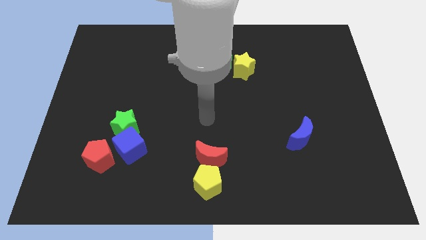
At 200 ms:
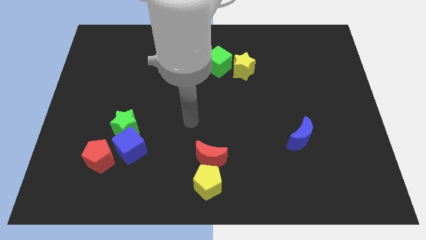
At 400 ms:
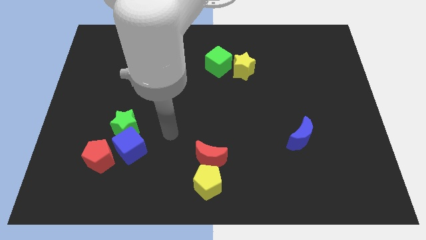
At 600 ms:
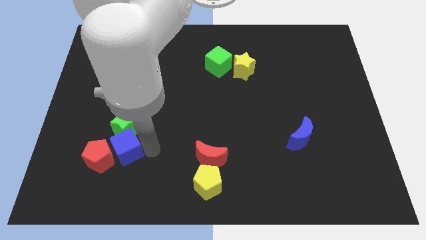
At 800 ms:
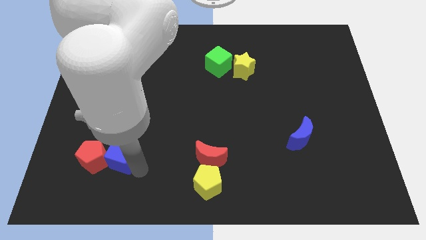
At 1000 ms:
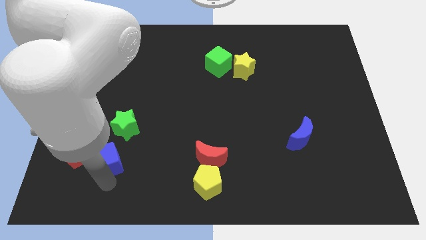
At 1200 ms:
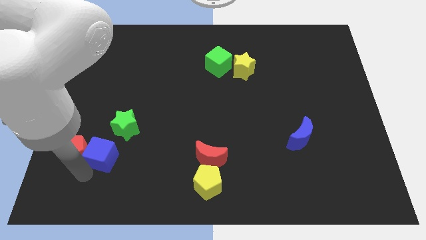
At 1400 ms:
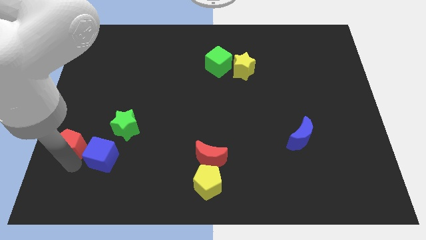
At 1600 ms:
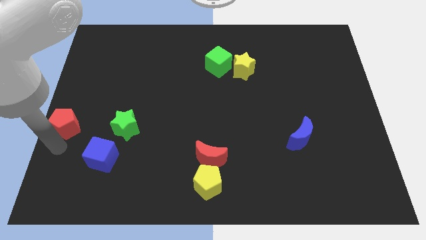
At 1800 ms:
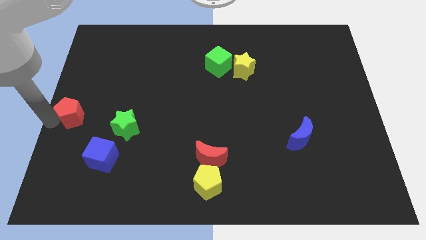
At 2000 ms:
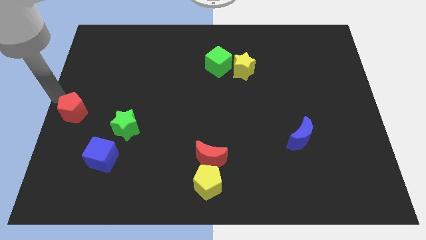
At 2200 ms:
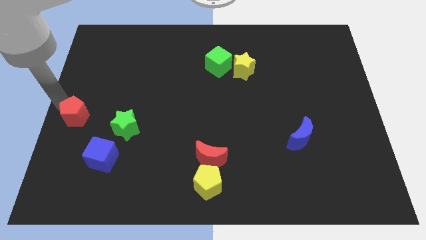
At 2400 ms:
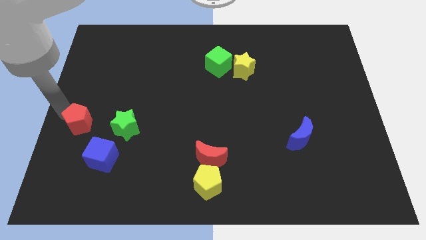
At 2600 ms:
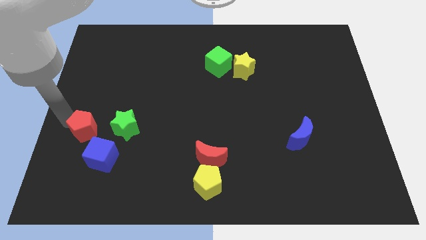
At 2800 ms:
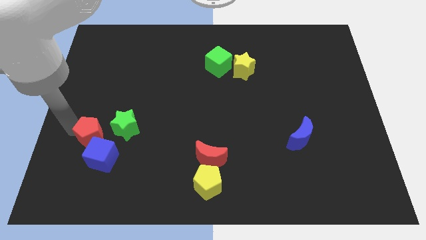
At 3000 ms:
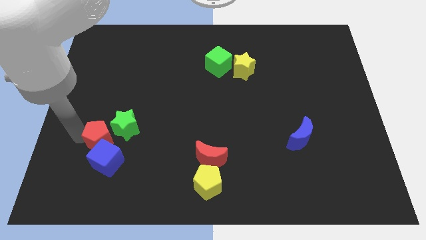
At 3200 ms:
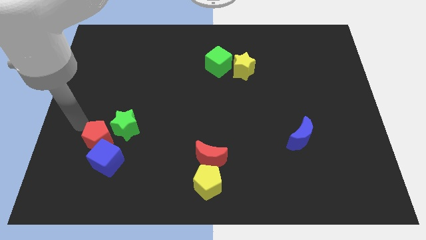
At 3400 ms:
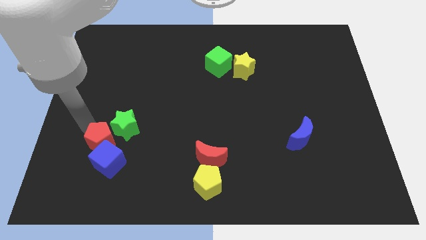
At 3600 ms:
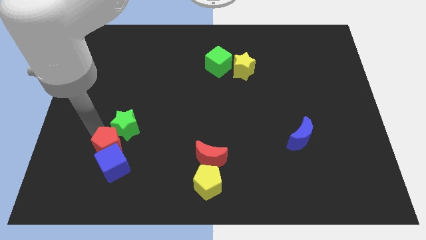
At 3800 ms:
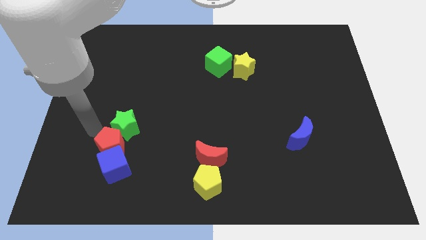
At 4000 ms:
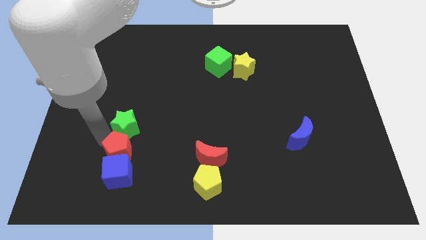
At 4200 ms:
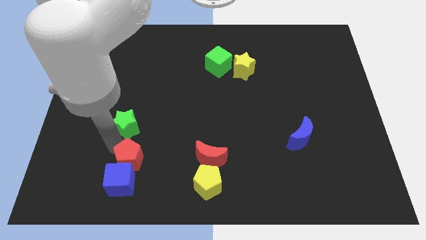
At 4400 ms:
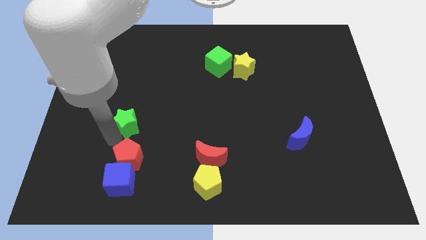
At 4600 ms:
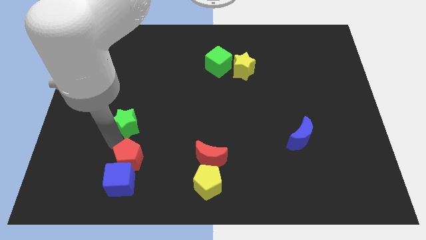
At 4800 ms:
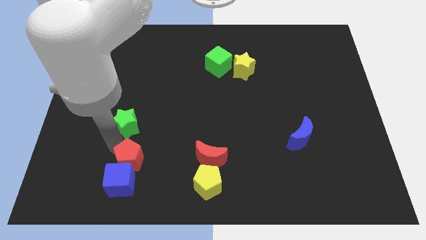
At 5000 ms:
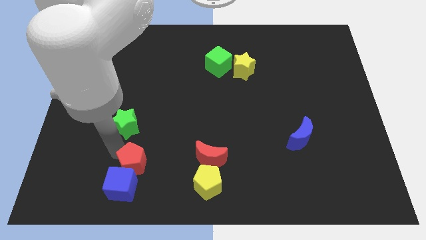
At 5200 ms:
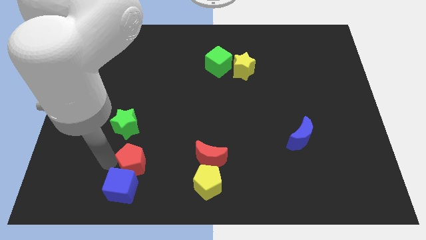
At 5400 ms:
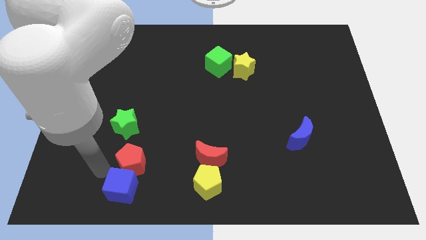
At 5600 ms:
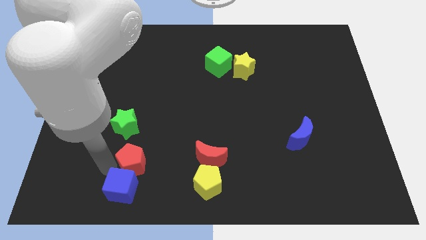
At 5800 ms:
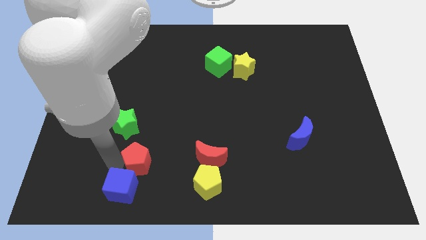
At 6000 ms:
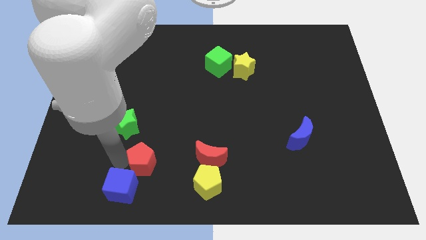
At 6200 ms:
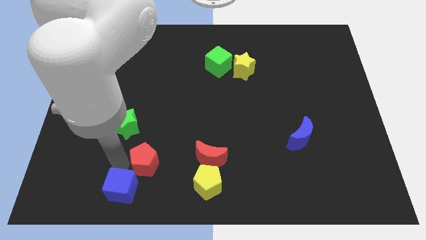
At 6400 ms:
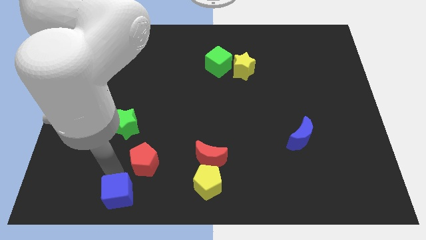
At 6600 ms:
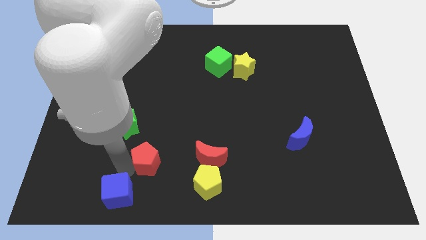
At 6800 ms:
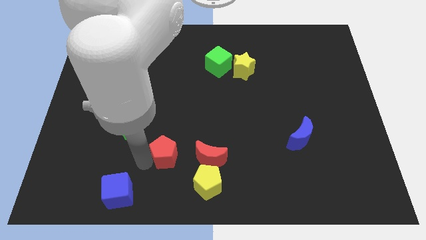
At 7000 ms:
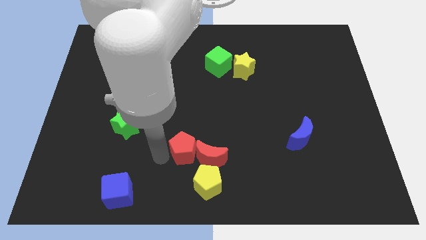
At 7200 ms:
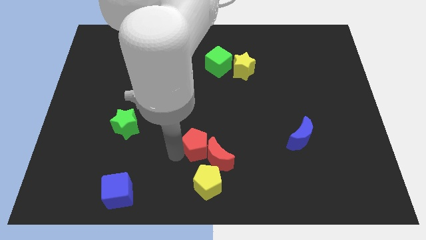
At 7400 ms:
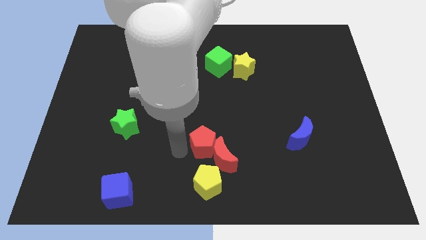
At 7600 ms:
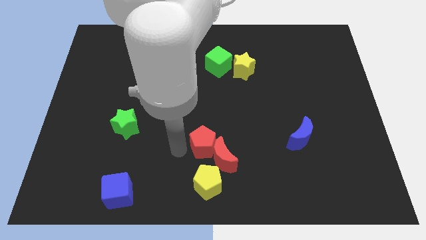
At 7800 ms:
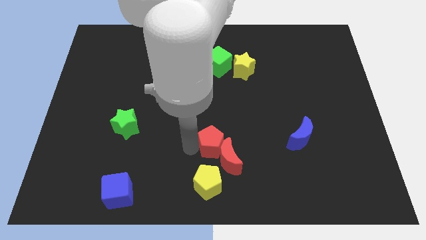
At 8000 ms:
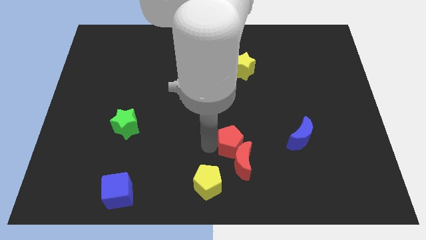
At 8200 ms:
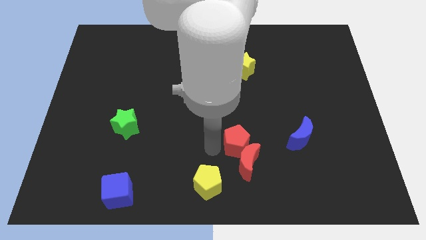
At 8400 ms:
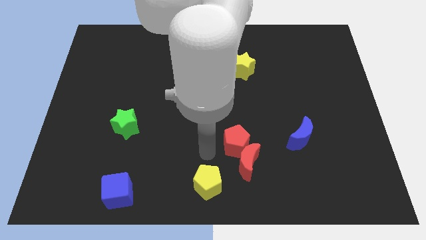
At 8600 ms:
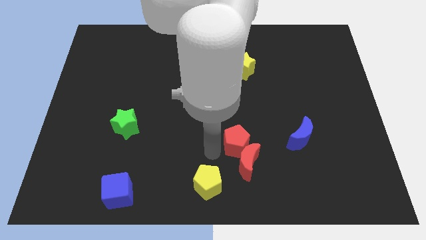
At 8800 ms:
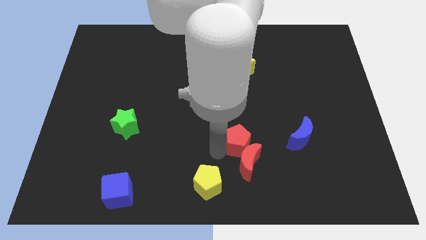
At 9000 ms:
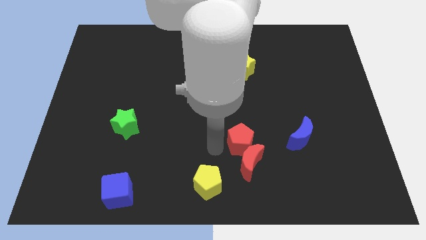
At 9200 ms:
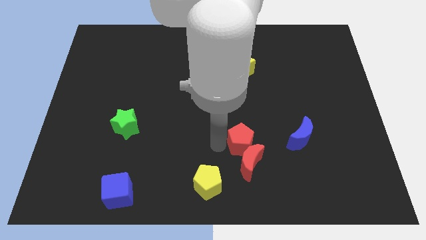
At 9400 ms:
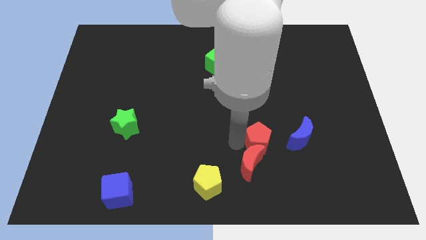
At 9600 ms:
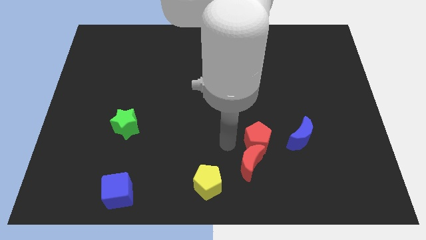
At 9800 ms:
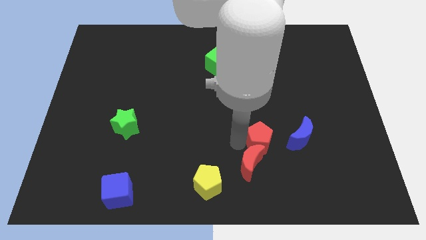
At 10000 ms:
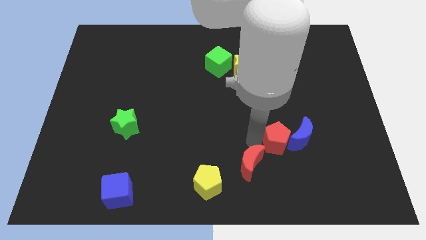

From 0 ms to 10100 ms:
move the red pentagon towards the blue moon

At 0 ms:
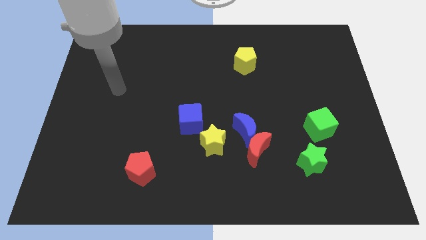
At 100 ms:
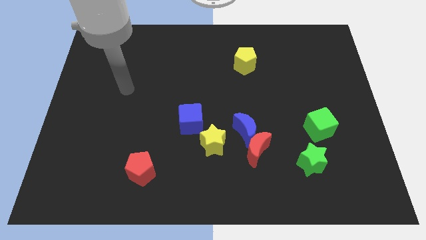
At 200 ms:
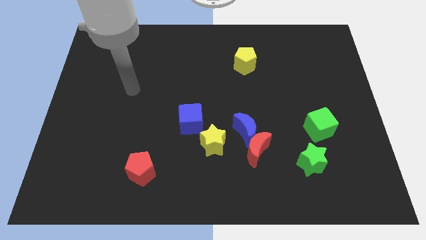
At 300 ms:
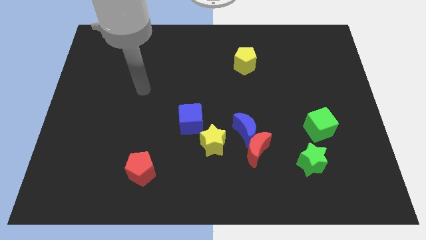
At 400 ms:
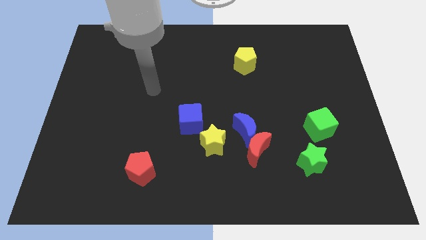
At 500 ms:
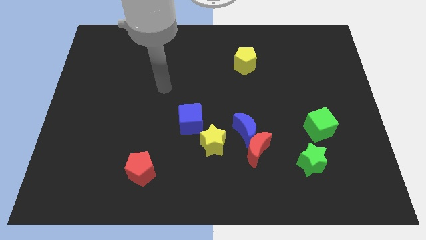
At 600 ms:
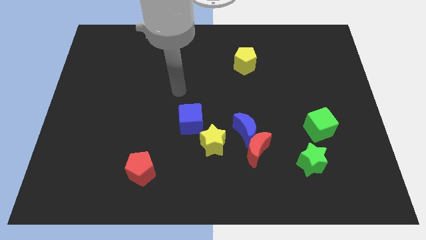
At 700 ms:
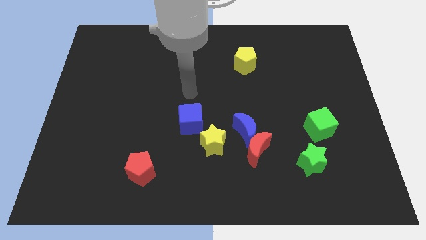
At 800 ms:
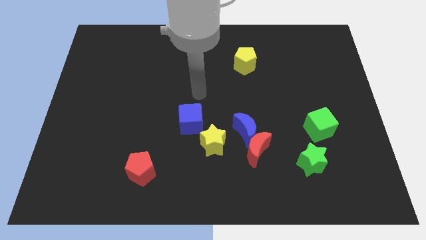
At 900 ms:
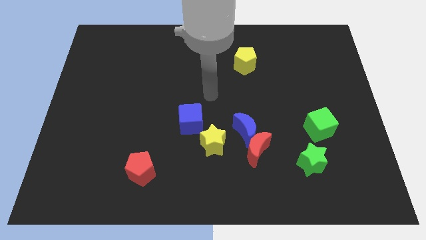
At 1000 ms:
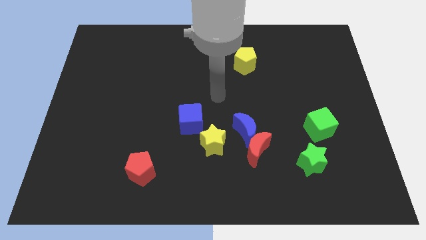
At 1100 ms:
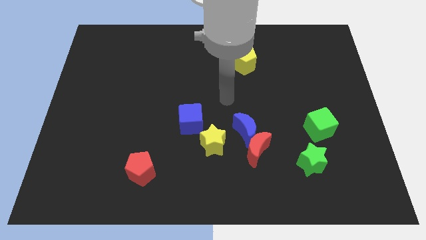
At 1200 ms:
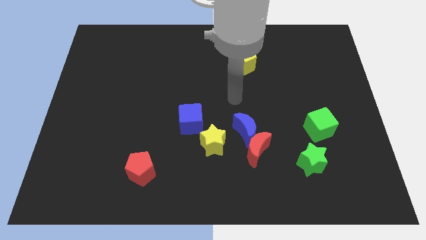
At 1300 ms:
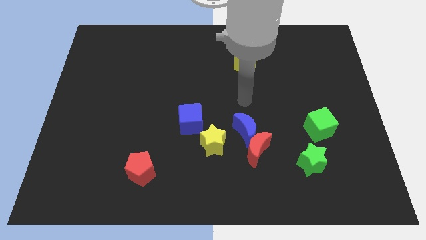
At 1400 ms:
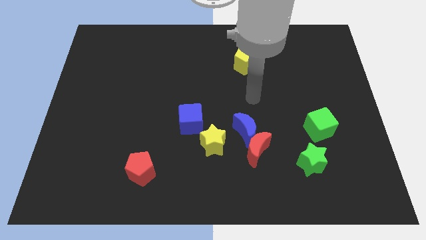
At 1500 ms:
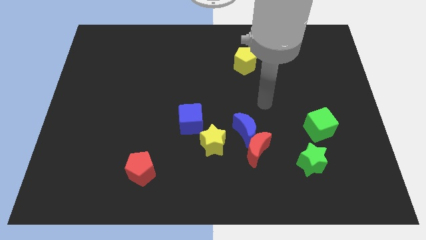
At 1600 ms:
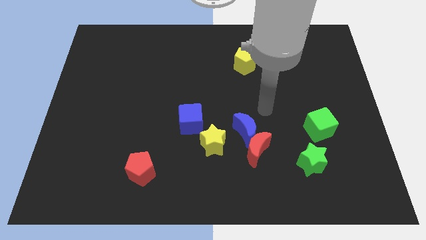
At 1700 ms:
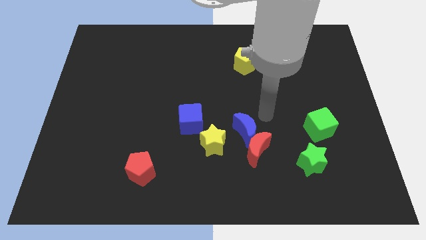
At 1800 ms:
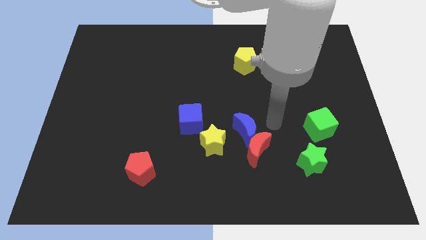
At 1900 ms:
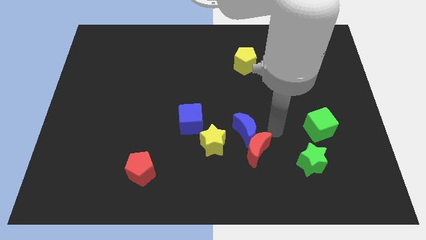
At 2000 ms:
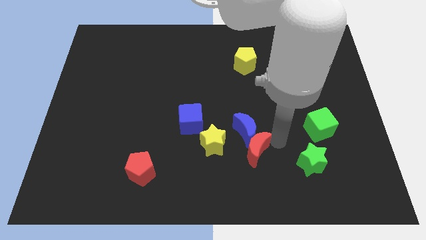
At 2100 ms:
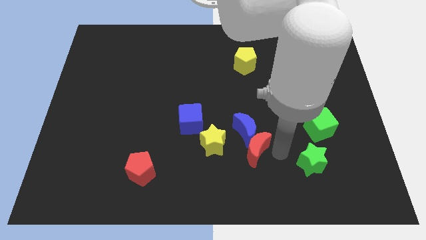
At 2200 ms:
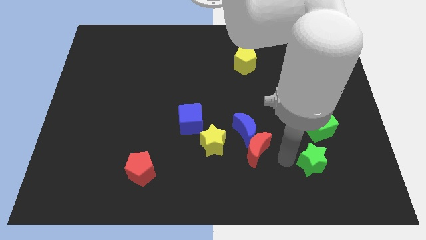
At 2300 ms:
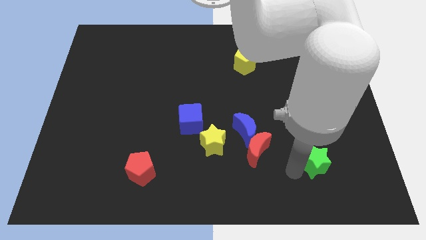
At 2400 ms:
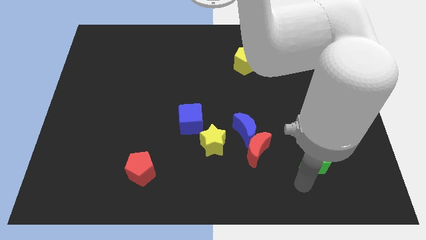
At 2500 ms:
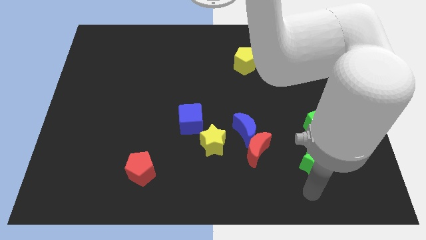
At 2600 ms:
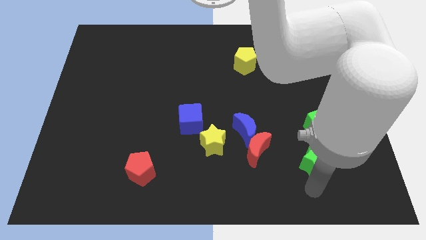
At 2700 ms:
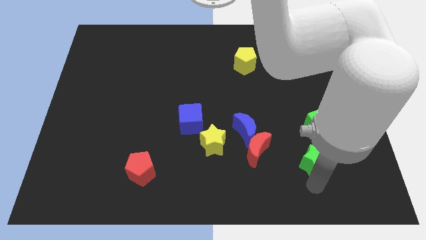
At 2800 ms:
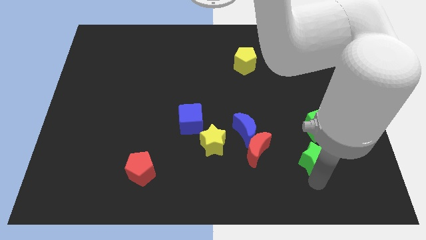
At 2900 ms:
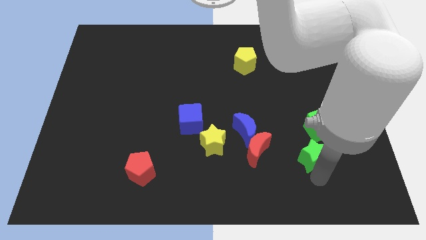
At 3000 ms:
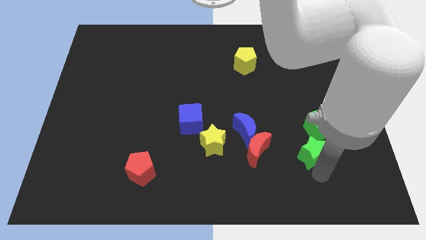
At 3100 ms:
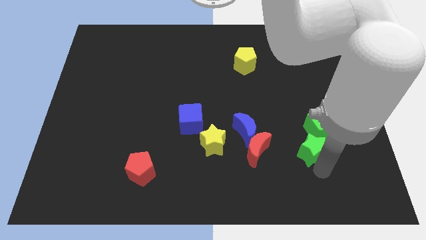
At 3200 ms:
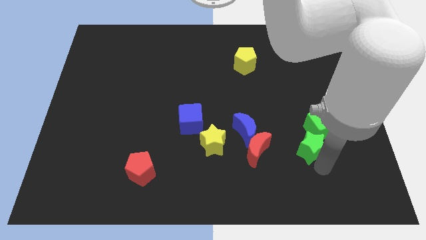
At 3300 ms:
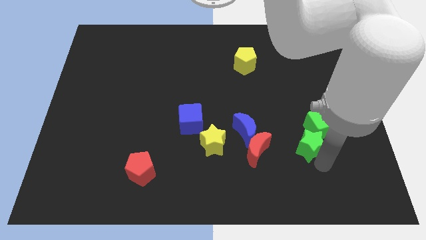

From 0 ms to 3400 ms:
move the green star to the green cube
